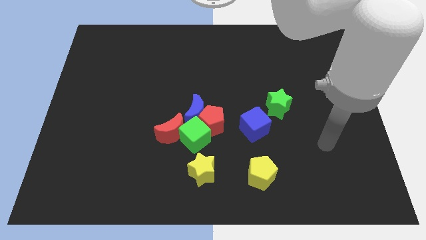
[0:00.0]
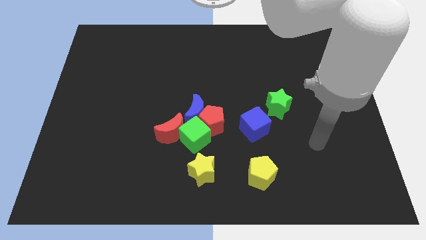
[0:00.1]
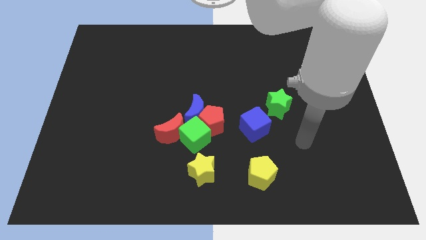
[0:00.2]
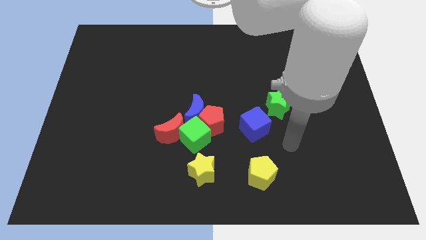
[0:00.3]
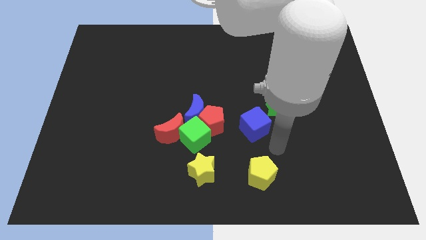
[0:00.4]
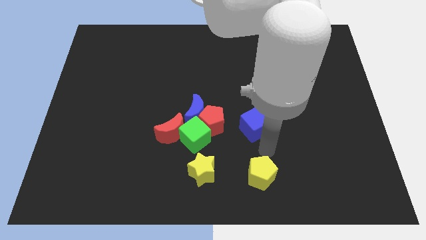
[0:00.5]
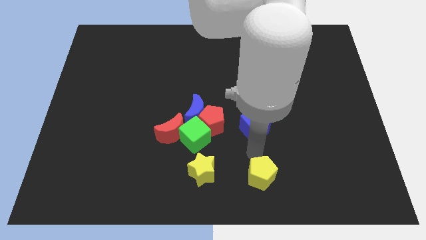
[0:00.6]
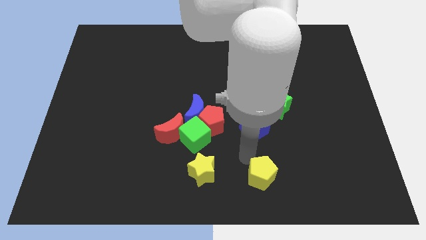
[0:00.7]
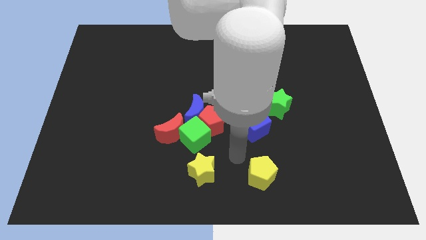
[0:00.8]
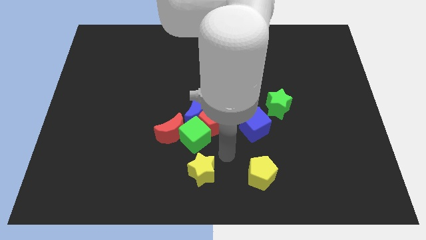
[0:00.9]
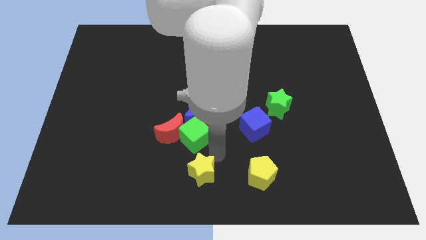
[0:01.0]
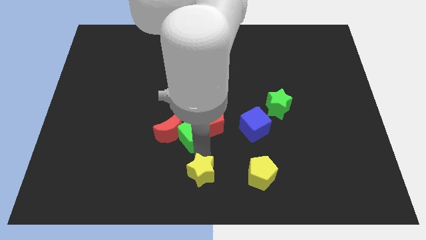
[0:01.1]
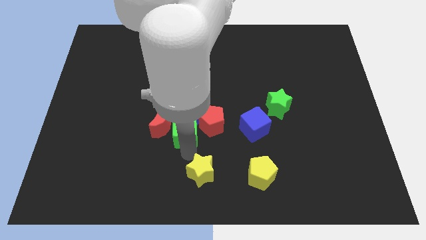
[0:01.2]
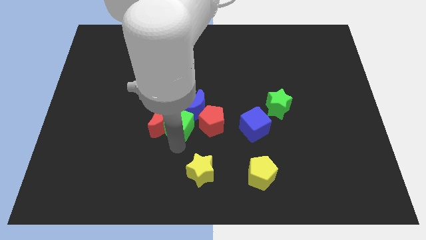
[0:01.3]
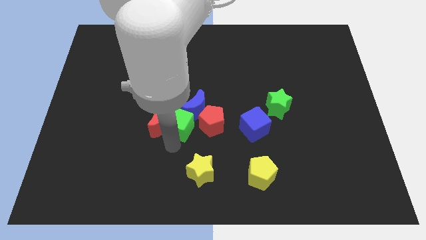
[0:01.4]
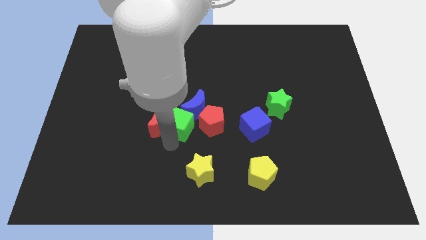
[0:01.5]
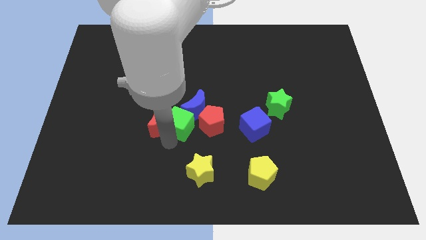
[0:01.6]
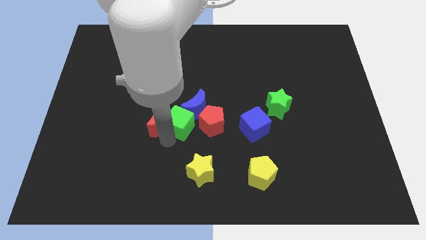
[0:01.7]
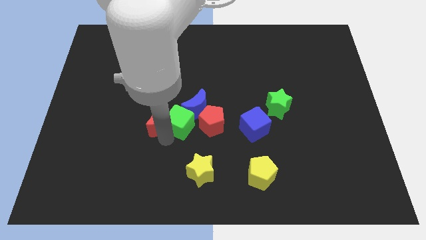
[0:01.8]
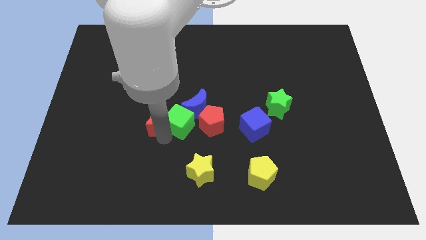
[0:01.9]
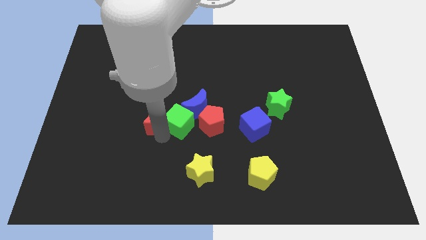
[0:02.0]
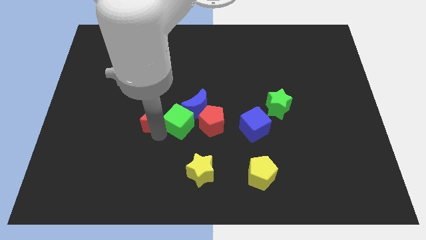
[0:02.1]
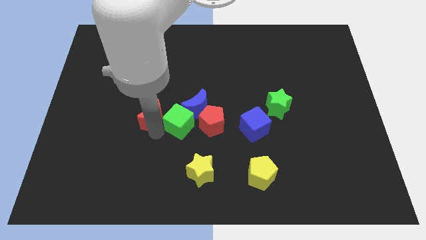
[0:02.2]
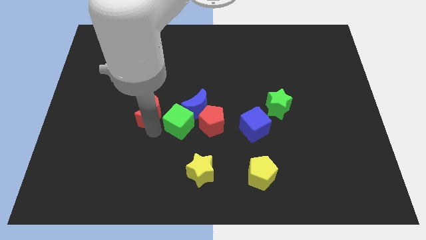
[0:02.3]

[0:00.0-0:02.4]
move the red moon upwards and then to the left a bit

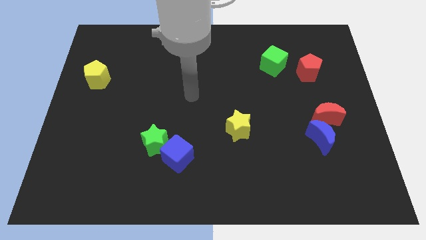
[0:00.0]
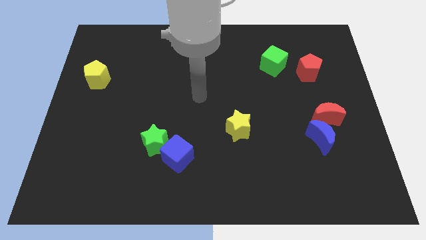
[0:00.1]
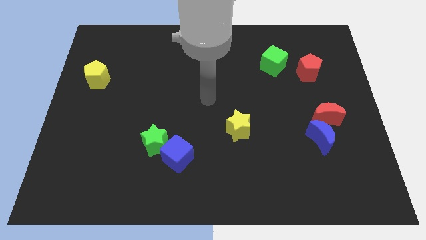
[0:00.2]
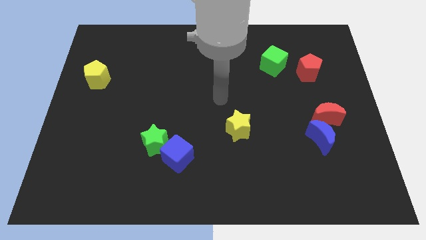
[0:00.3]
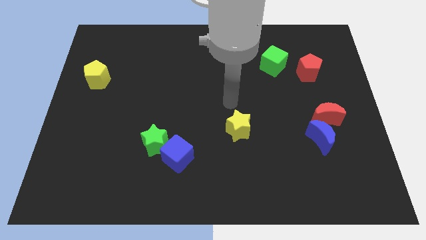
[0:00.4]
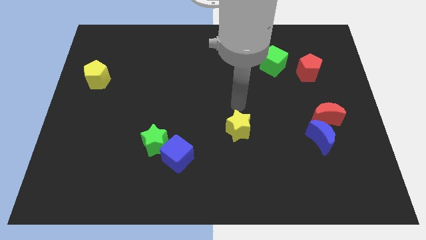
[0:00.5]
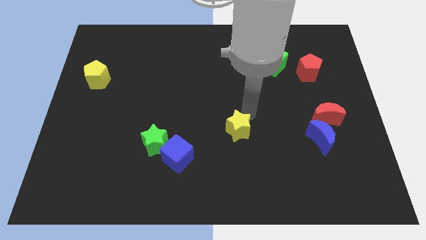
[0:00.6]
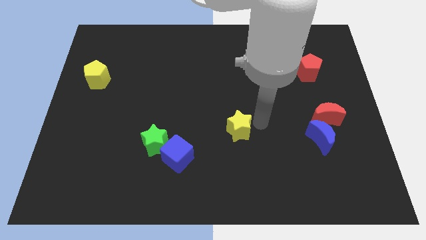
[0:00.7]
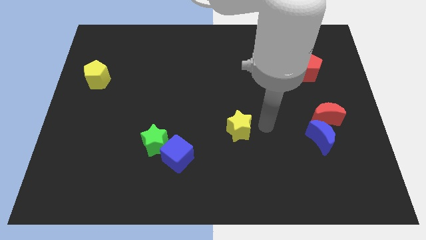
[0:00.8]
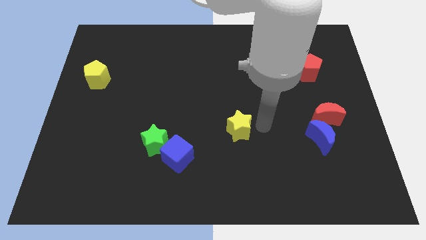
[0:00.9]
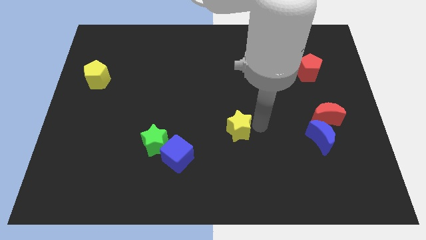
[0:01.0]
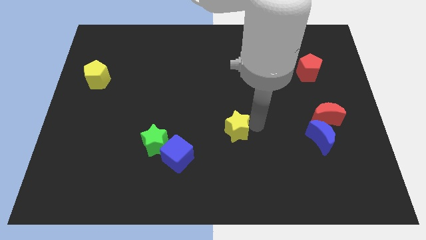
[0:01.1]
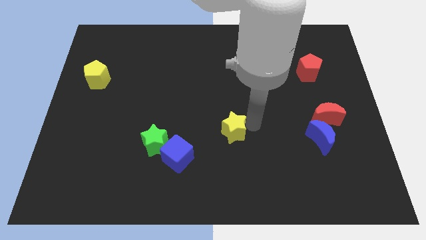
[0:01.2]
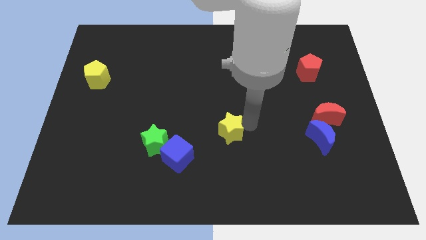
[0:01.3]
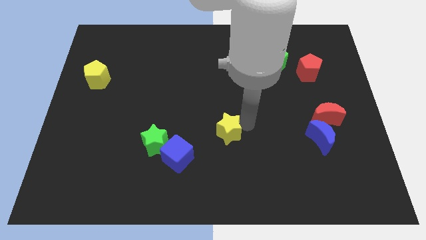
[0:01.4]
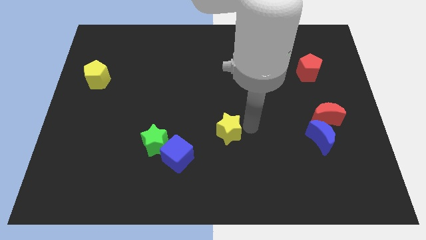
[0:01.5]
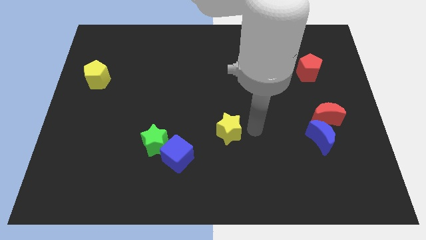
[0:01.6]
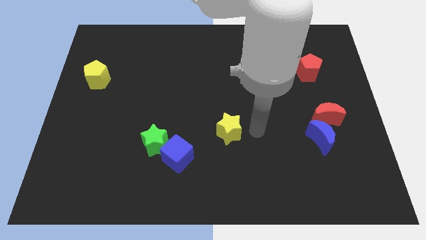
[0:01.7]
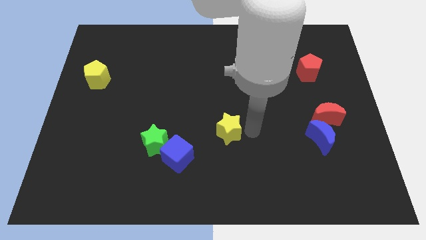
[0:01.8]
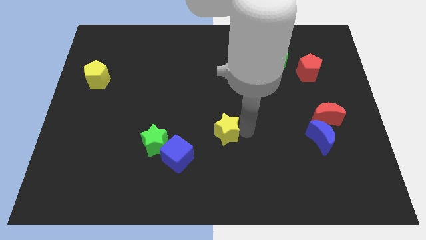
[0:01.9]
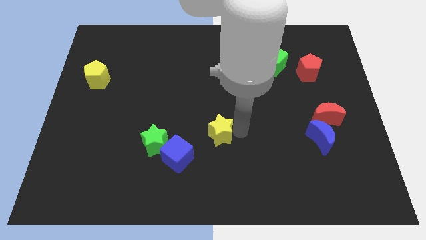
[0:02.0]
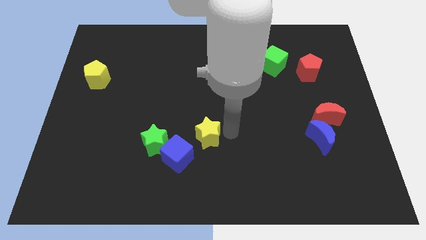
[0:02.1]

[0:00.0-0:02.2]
slightly move the yellow star left

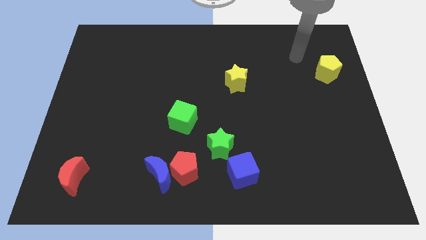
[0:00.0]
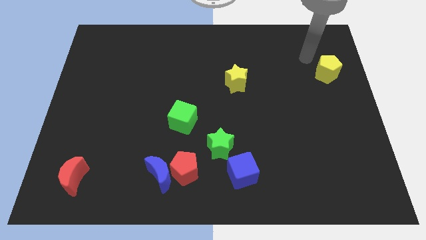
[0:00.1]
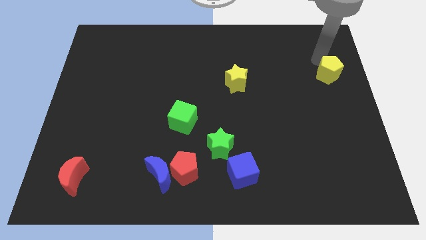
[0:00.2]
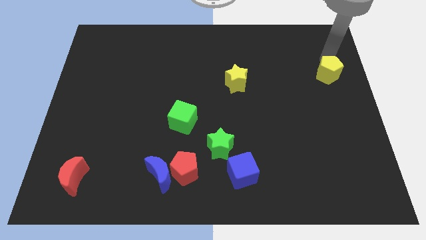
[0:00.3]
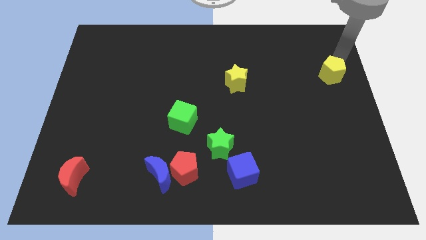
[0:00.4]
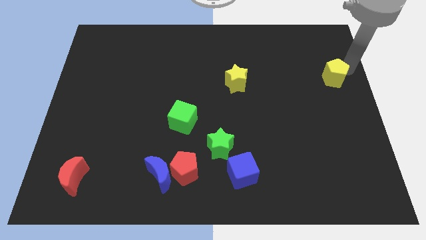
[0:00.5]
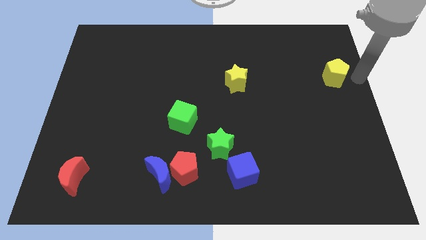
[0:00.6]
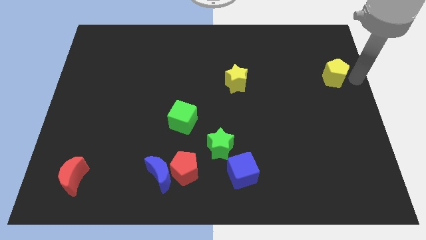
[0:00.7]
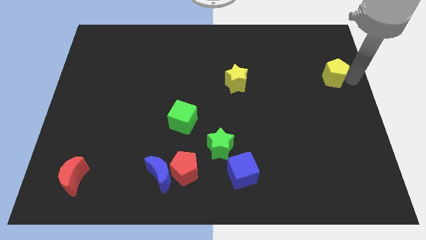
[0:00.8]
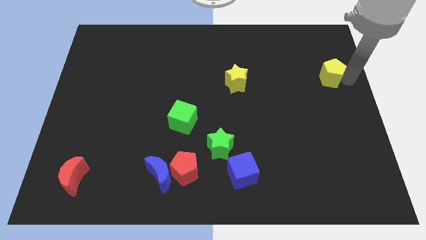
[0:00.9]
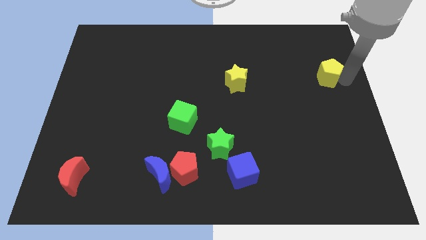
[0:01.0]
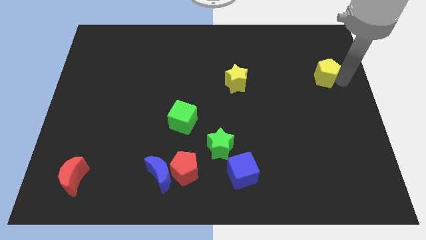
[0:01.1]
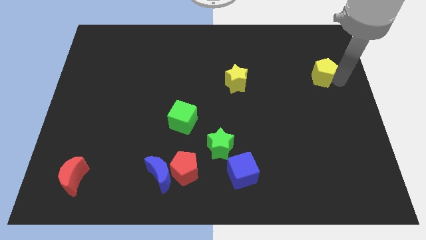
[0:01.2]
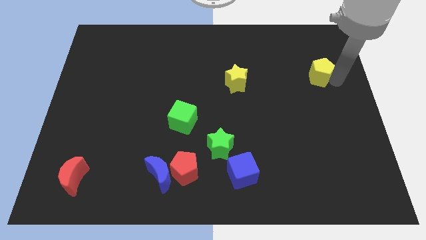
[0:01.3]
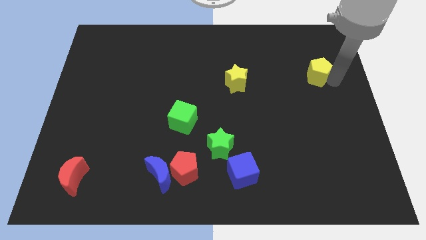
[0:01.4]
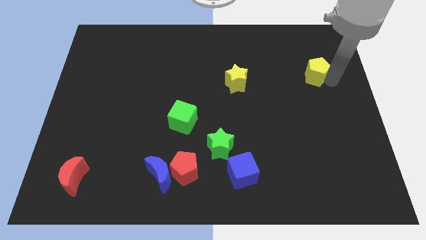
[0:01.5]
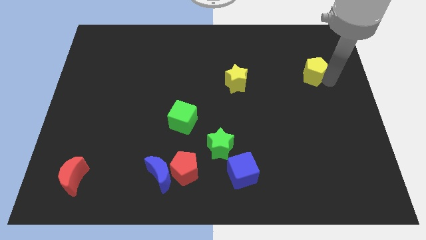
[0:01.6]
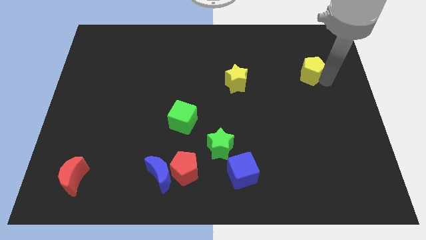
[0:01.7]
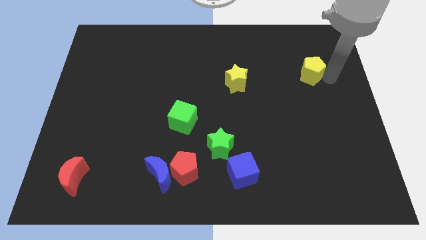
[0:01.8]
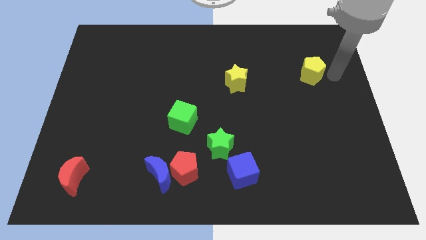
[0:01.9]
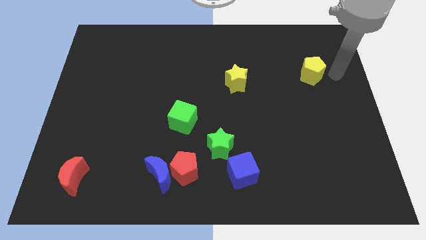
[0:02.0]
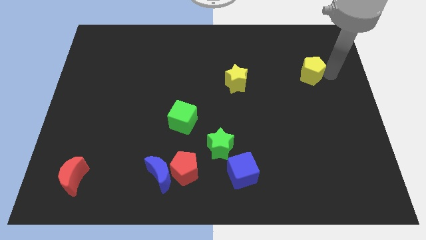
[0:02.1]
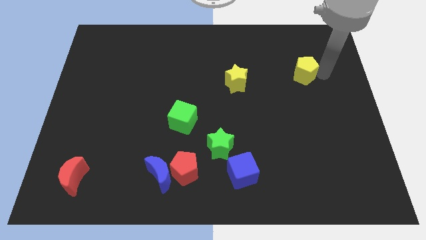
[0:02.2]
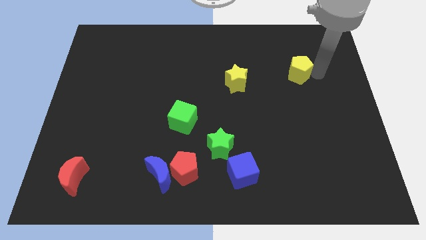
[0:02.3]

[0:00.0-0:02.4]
push the yellow pentagon a little bit to the left

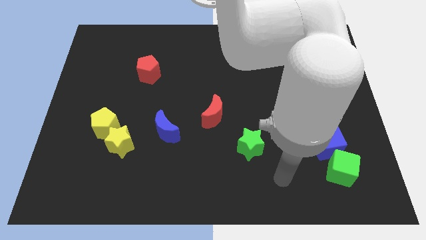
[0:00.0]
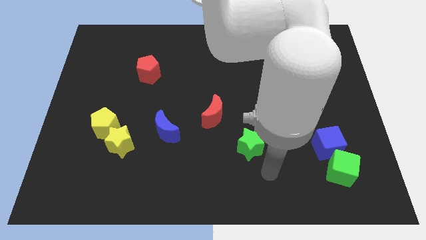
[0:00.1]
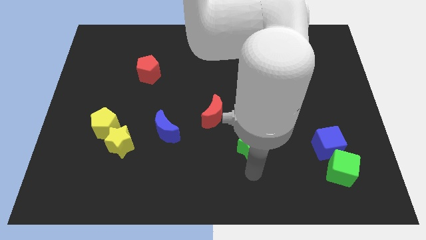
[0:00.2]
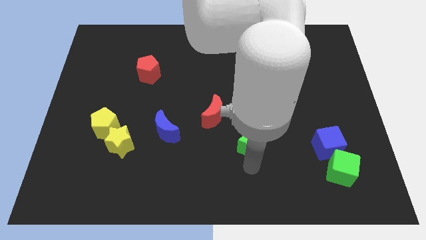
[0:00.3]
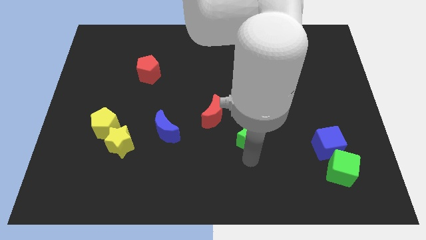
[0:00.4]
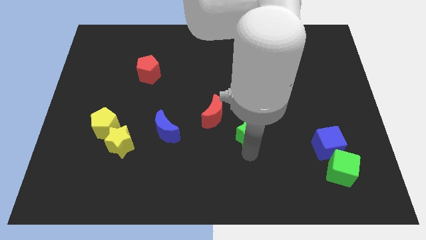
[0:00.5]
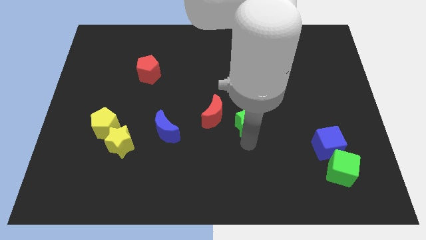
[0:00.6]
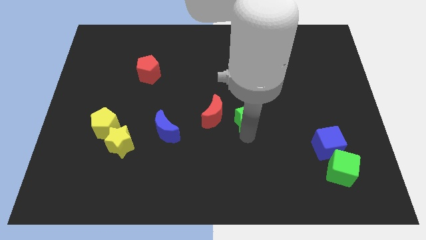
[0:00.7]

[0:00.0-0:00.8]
slide the green star up a little

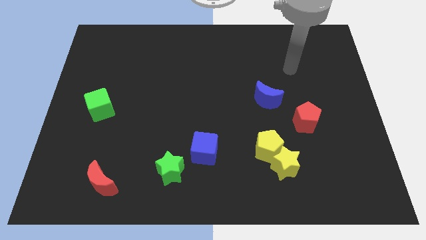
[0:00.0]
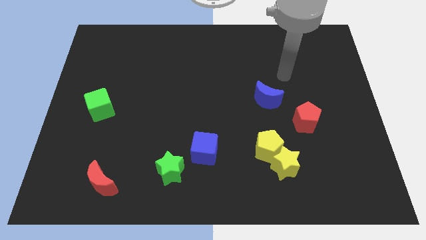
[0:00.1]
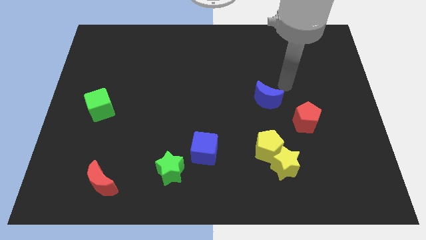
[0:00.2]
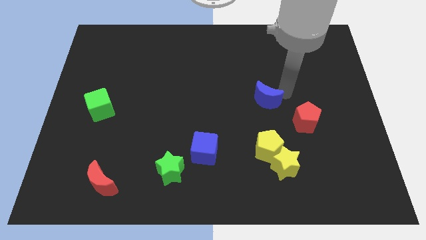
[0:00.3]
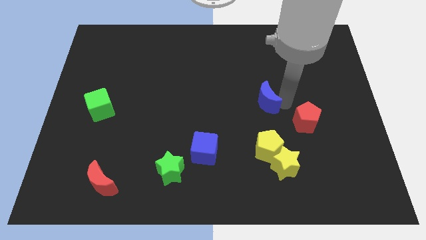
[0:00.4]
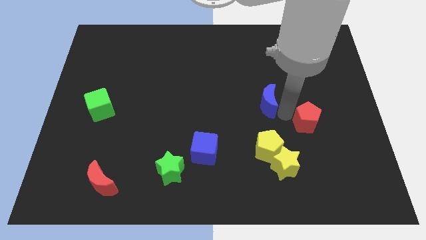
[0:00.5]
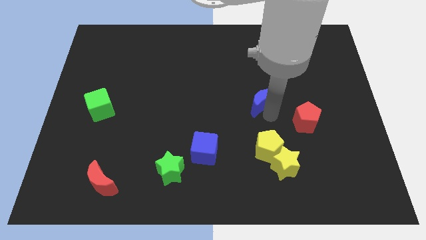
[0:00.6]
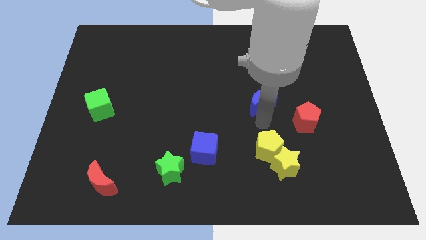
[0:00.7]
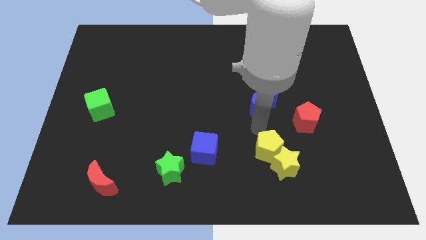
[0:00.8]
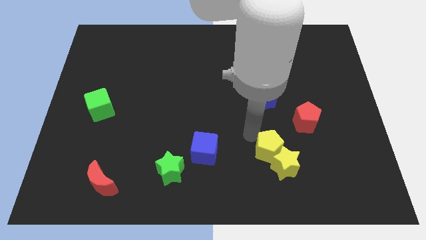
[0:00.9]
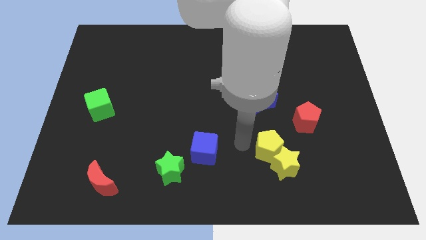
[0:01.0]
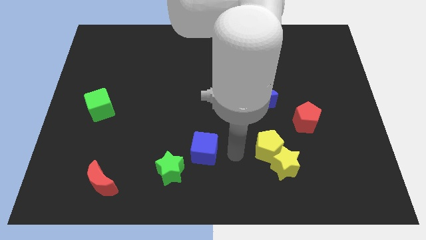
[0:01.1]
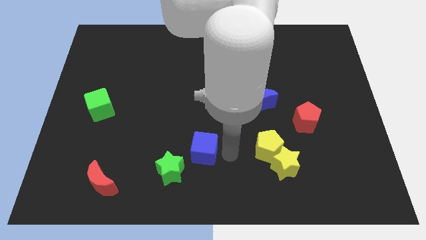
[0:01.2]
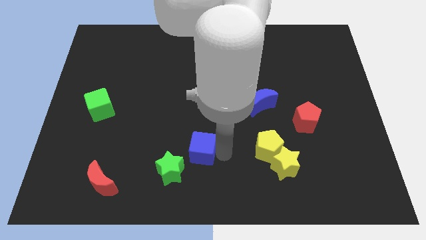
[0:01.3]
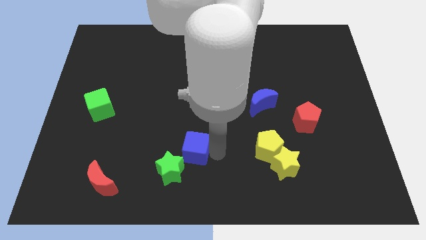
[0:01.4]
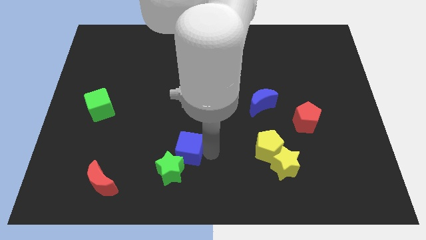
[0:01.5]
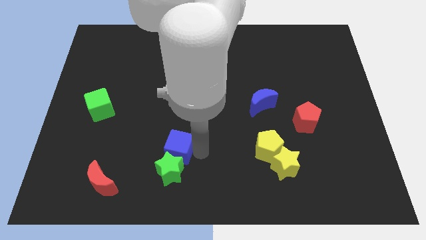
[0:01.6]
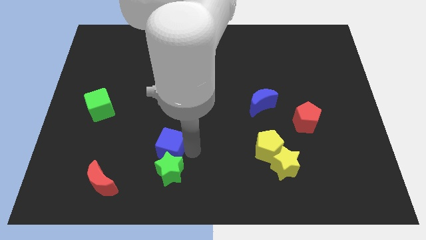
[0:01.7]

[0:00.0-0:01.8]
move the blue cube to the left slightly
